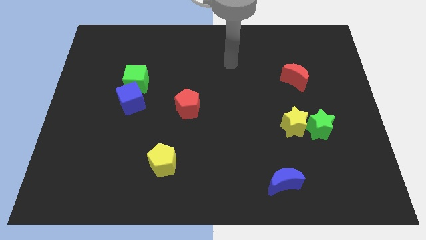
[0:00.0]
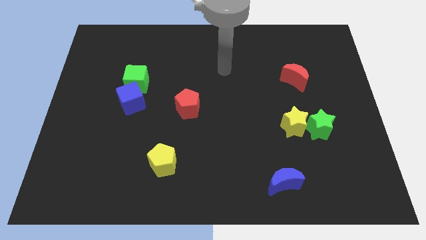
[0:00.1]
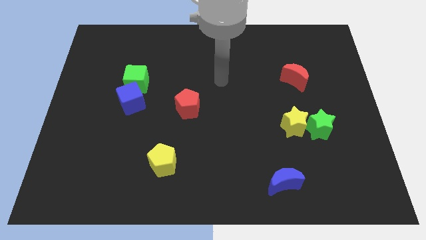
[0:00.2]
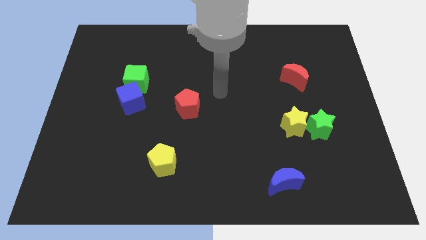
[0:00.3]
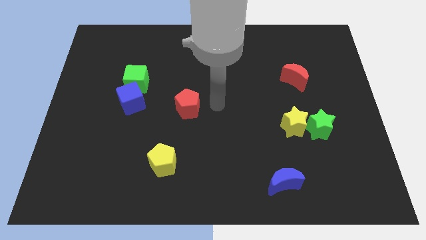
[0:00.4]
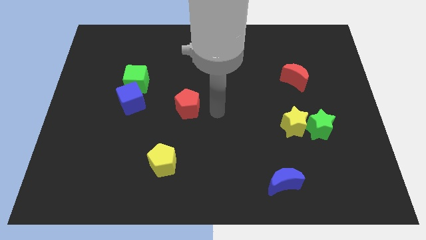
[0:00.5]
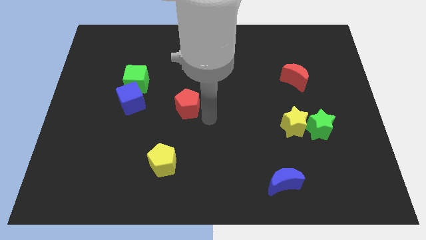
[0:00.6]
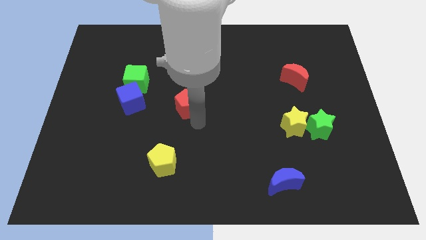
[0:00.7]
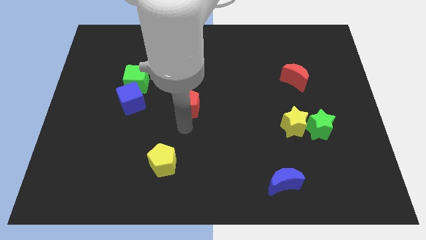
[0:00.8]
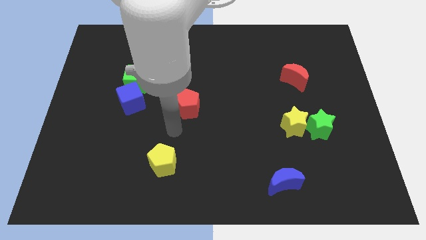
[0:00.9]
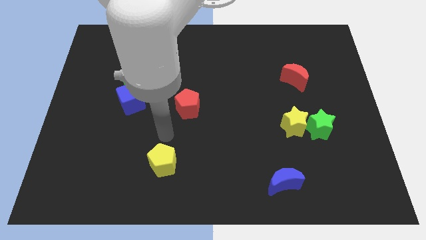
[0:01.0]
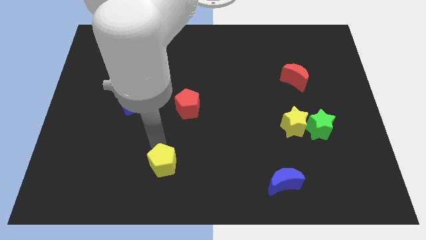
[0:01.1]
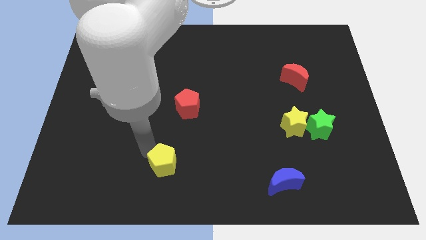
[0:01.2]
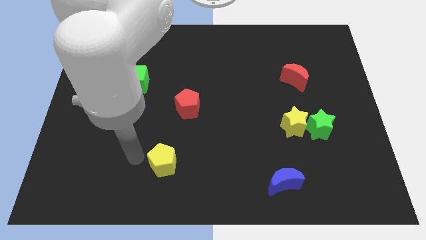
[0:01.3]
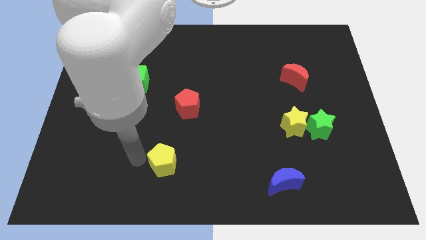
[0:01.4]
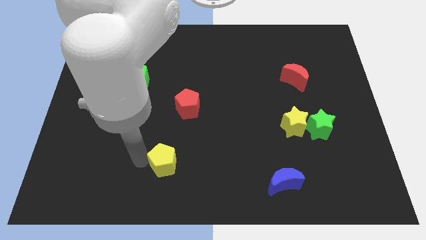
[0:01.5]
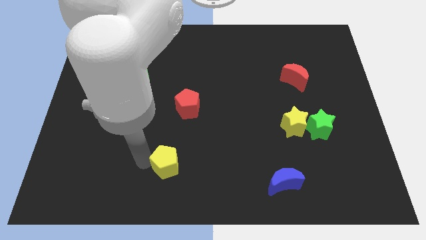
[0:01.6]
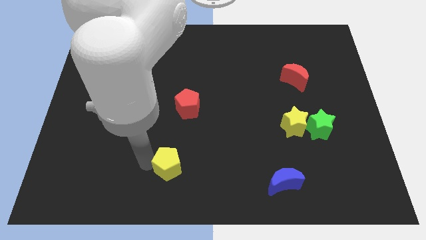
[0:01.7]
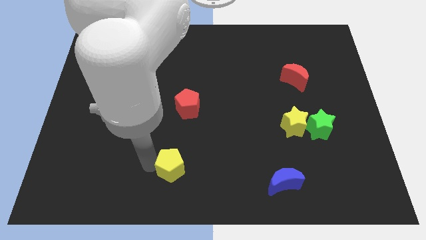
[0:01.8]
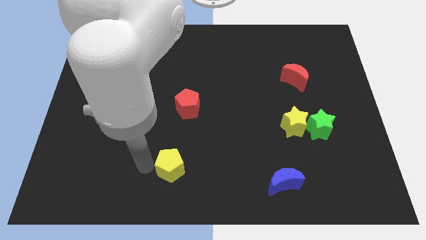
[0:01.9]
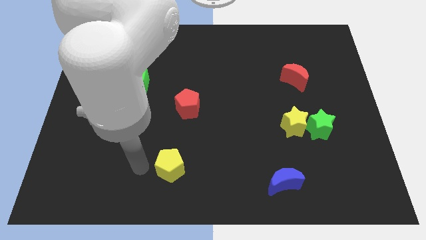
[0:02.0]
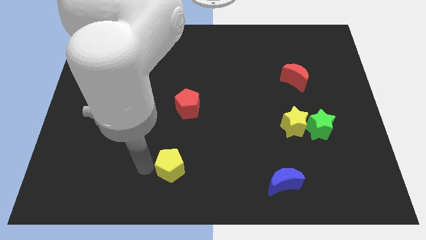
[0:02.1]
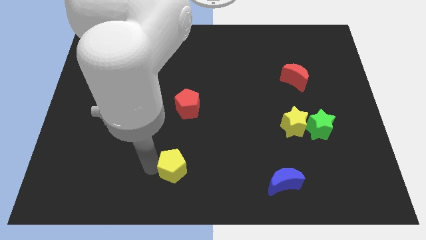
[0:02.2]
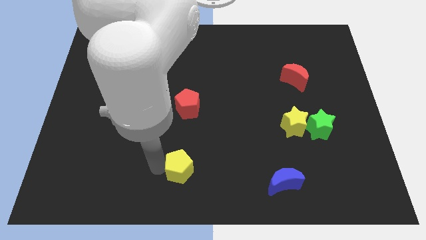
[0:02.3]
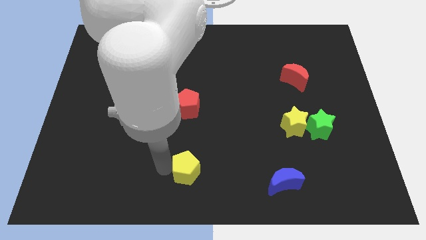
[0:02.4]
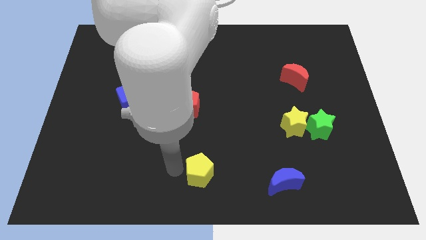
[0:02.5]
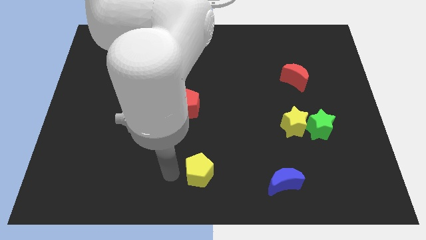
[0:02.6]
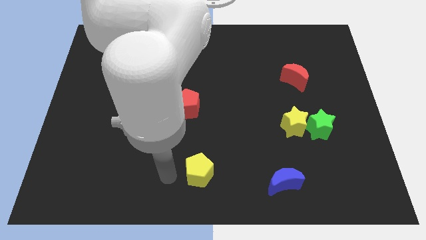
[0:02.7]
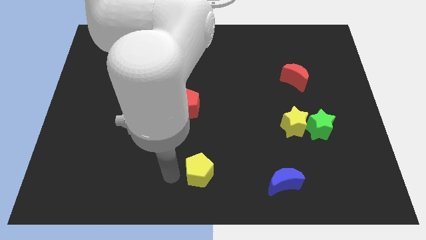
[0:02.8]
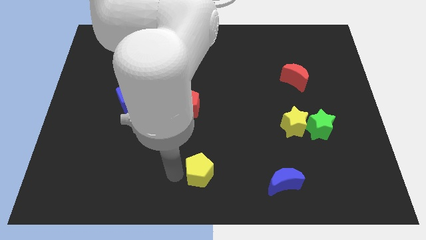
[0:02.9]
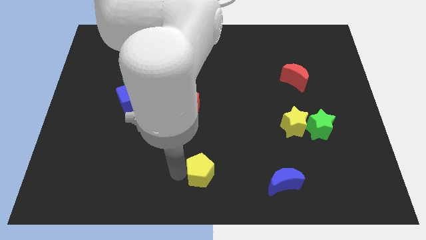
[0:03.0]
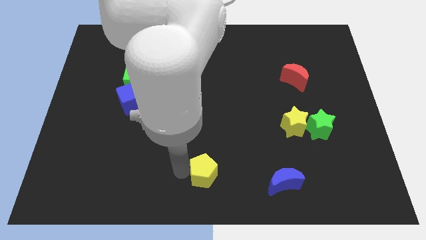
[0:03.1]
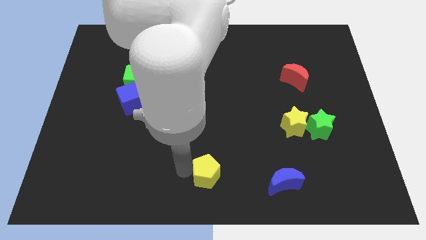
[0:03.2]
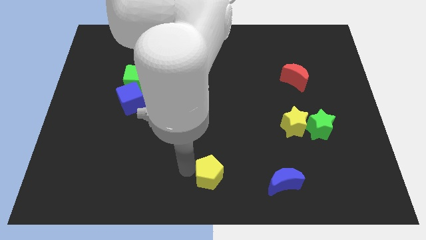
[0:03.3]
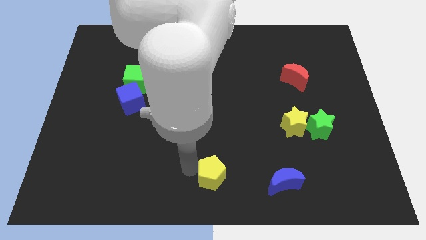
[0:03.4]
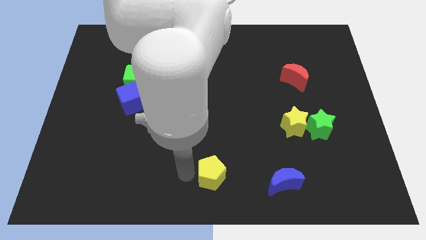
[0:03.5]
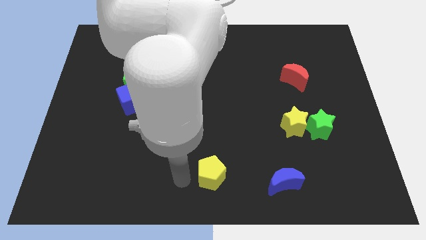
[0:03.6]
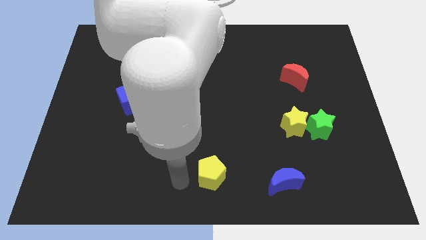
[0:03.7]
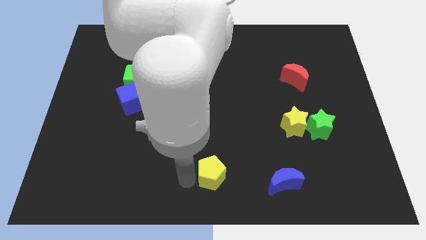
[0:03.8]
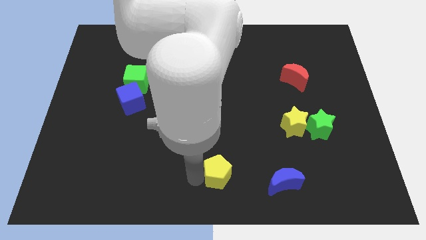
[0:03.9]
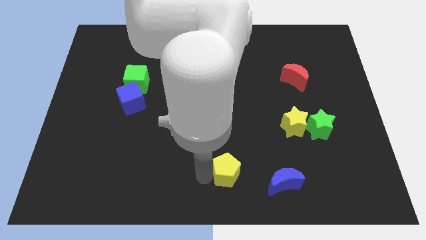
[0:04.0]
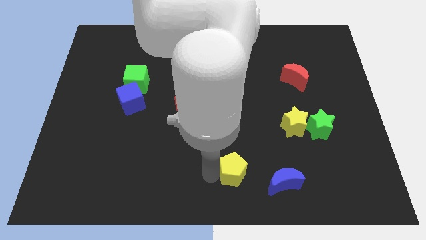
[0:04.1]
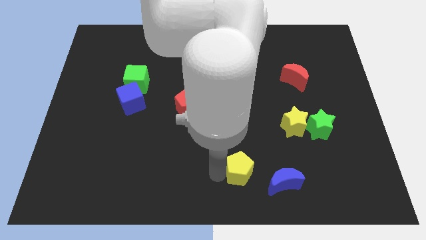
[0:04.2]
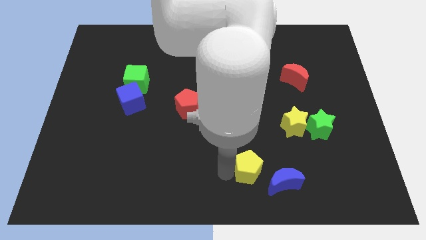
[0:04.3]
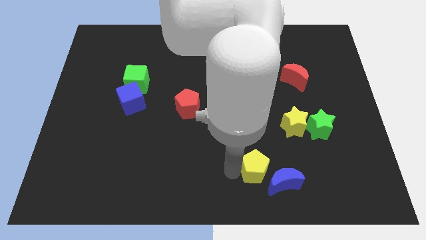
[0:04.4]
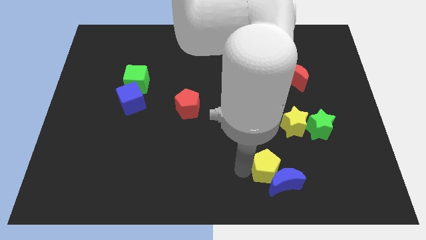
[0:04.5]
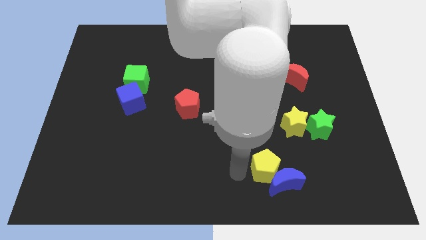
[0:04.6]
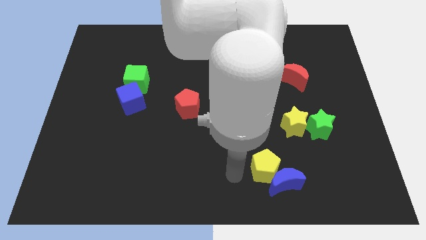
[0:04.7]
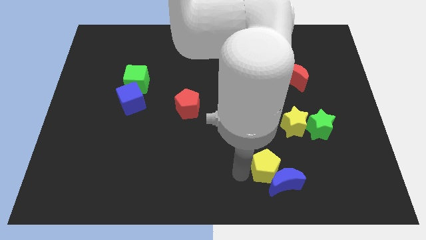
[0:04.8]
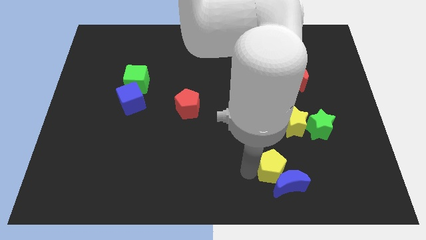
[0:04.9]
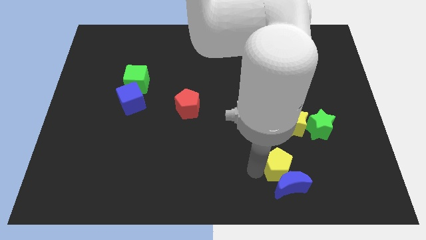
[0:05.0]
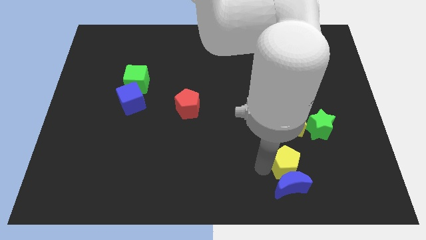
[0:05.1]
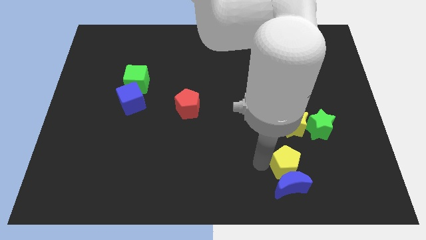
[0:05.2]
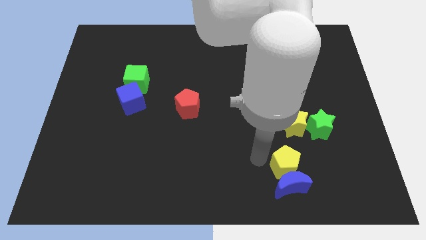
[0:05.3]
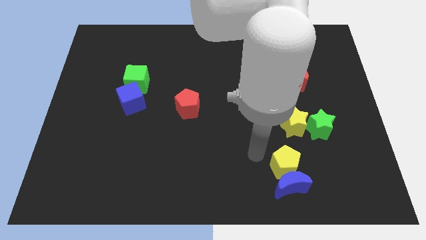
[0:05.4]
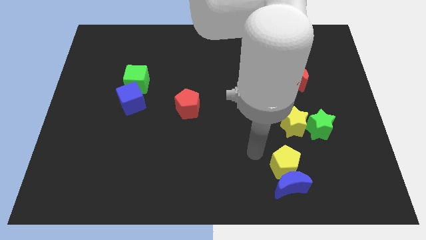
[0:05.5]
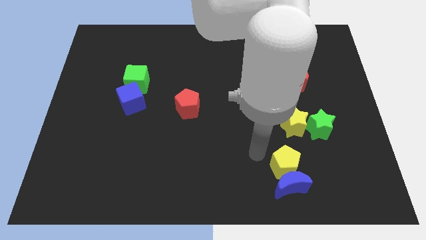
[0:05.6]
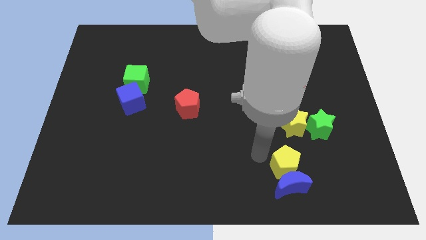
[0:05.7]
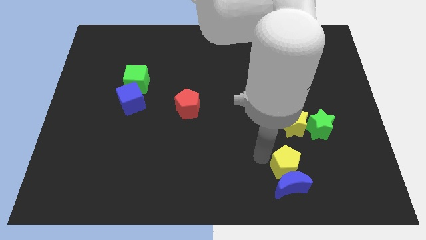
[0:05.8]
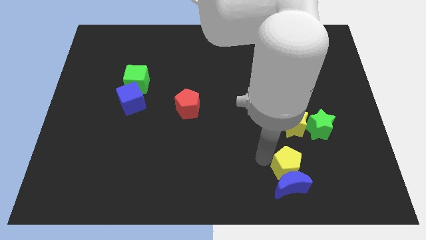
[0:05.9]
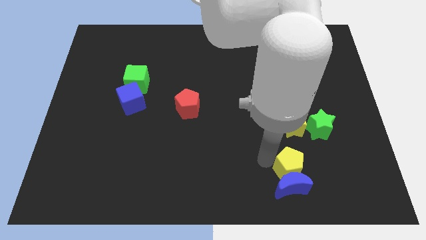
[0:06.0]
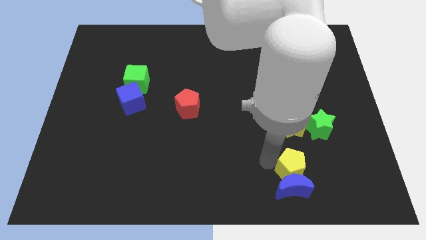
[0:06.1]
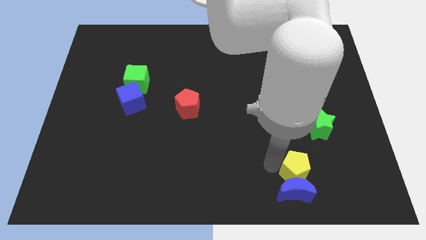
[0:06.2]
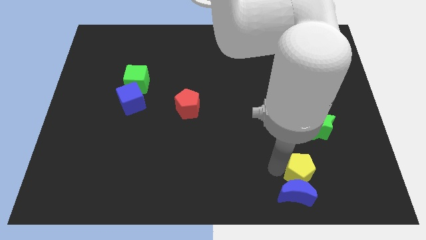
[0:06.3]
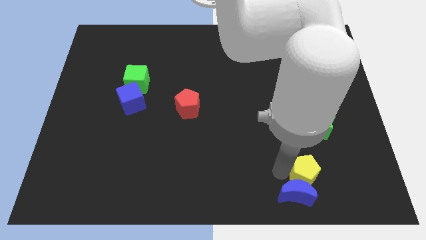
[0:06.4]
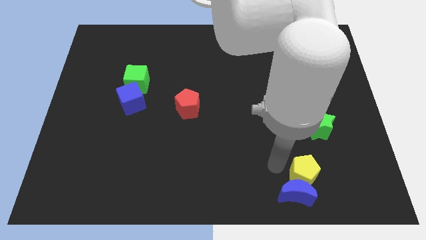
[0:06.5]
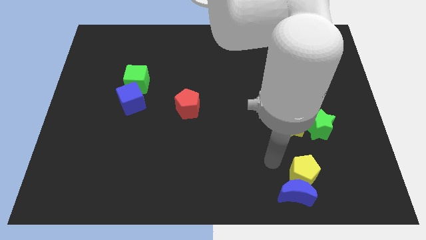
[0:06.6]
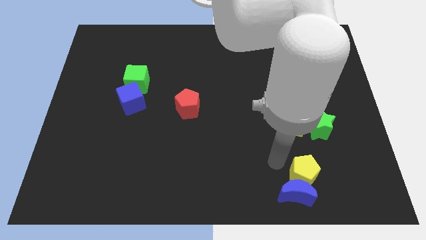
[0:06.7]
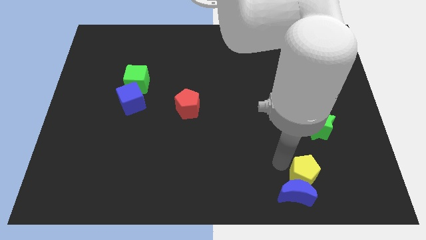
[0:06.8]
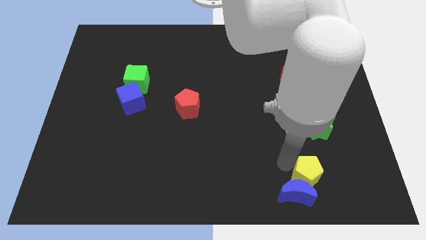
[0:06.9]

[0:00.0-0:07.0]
put the yellow pentagon to the right side of the blue moon
